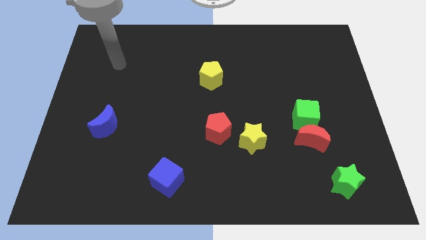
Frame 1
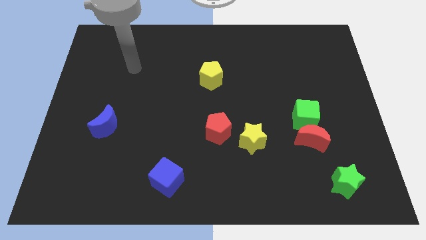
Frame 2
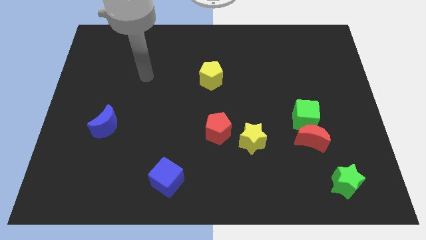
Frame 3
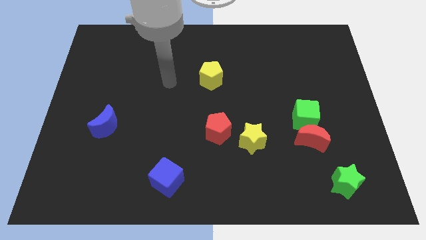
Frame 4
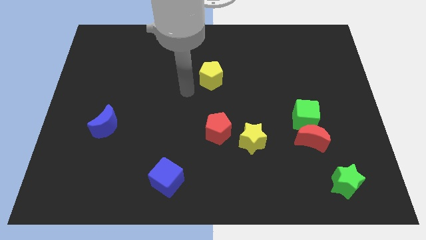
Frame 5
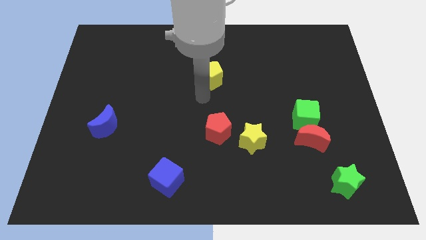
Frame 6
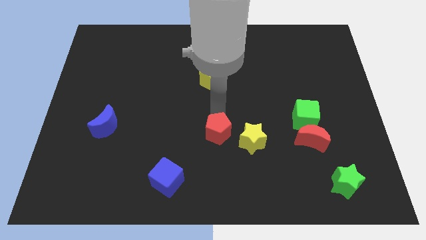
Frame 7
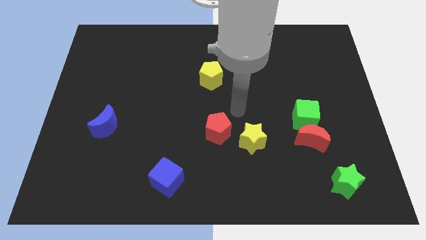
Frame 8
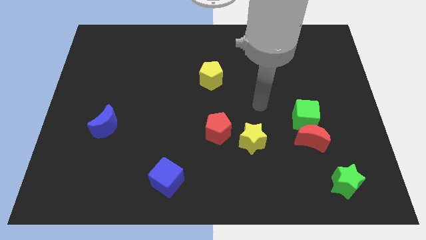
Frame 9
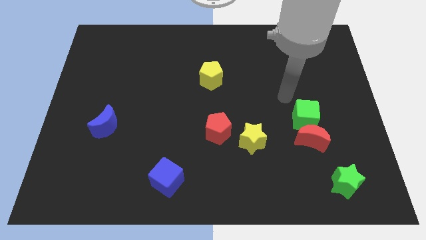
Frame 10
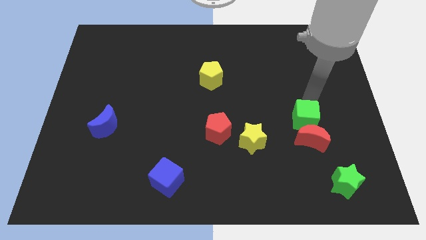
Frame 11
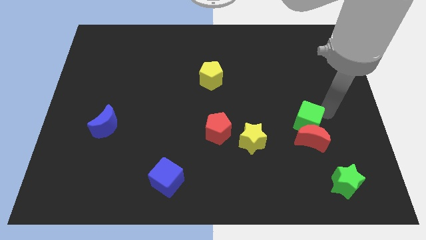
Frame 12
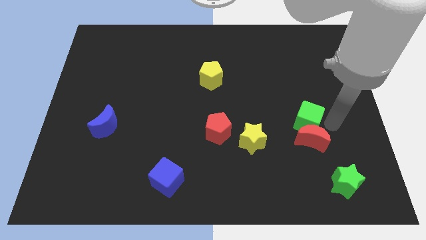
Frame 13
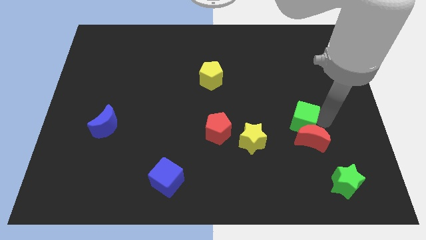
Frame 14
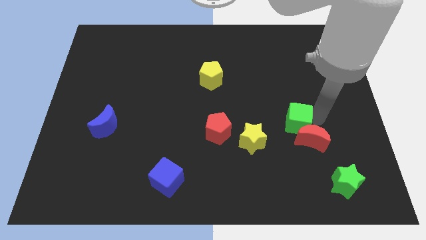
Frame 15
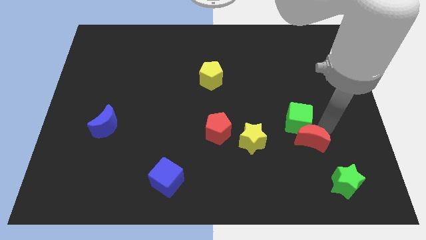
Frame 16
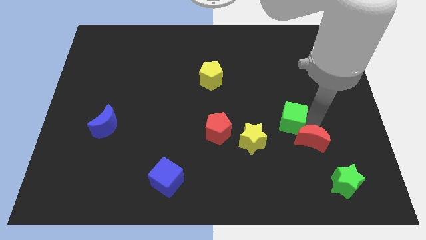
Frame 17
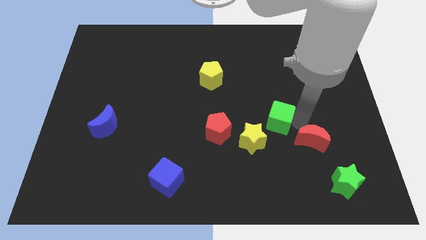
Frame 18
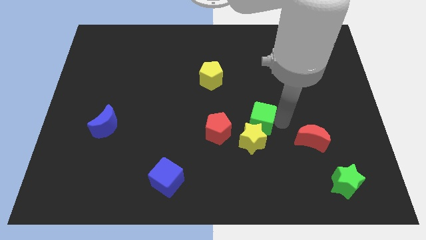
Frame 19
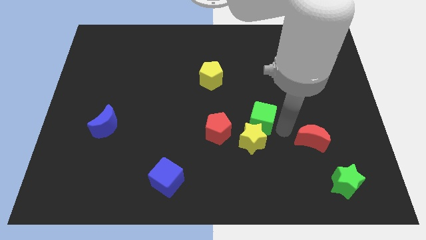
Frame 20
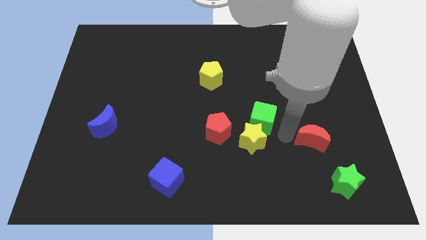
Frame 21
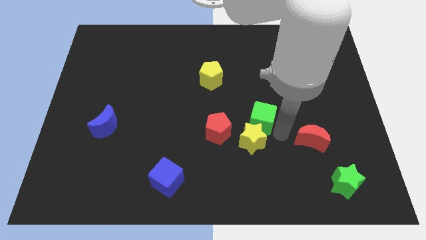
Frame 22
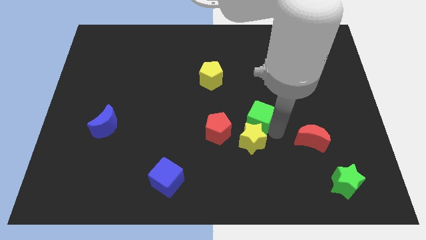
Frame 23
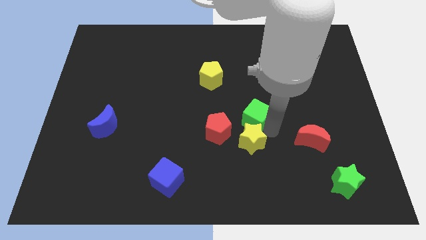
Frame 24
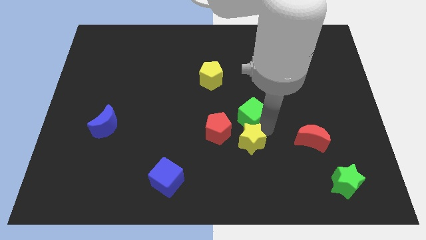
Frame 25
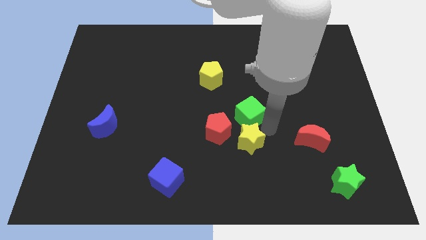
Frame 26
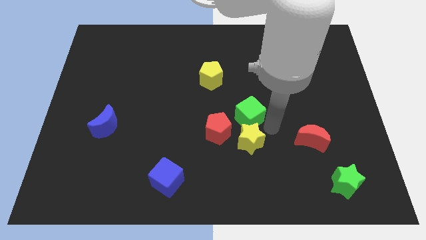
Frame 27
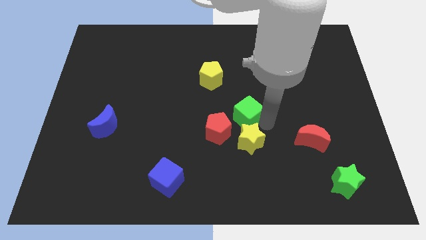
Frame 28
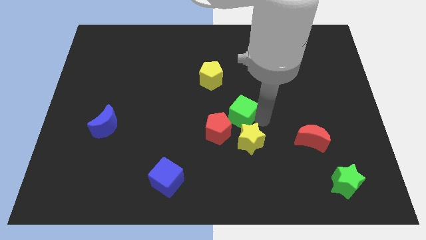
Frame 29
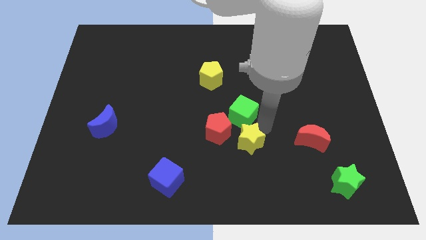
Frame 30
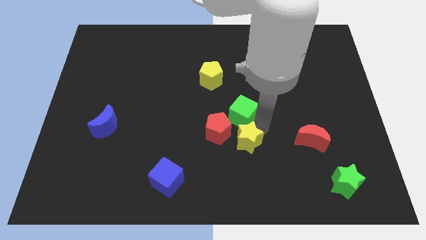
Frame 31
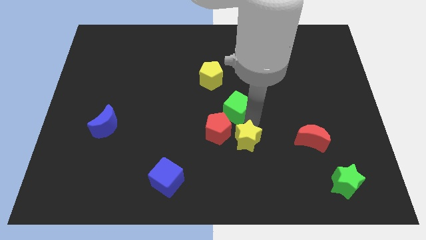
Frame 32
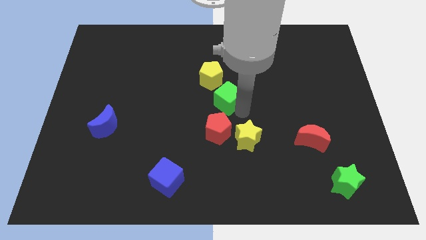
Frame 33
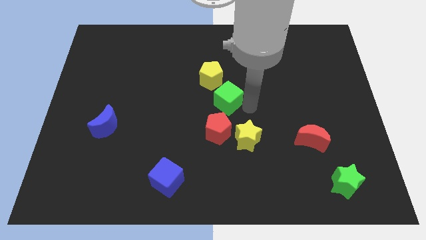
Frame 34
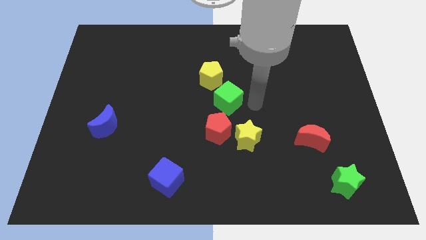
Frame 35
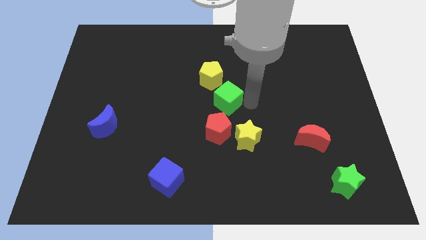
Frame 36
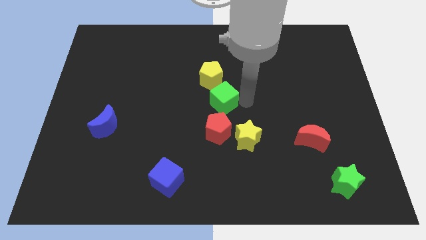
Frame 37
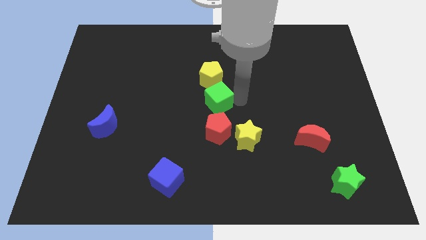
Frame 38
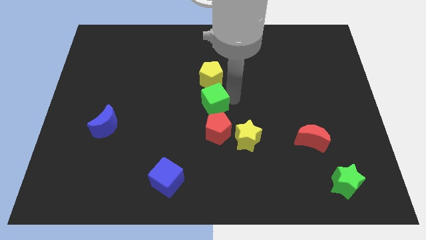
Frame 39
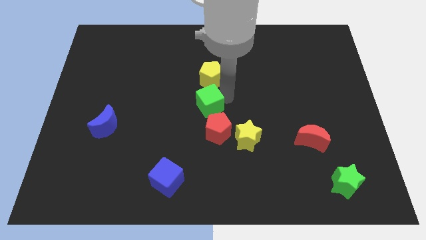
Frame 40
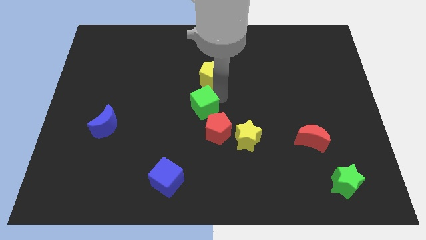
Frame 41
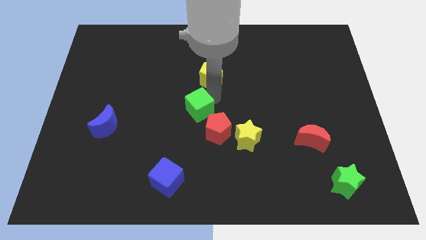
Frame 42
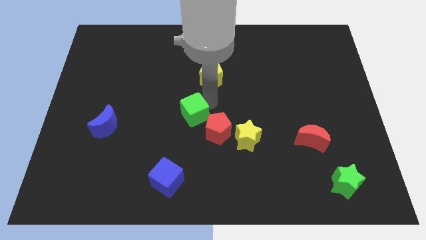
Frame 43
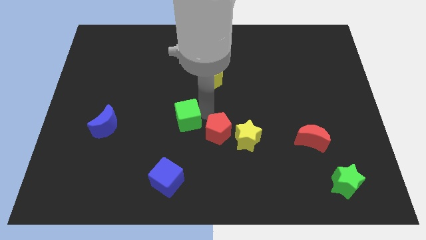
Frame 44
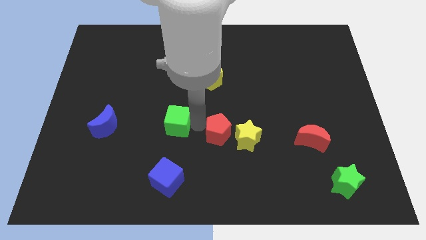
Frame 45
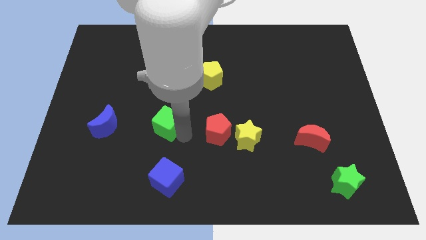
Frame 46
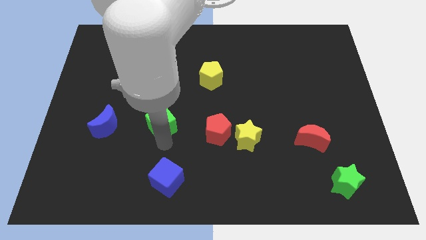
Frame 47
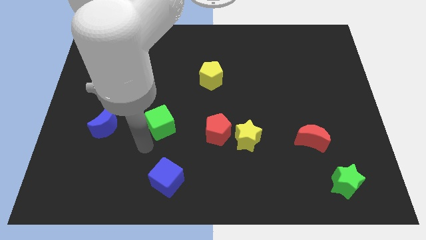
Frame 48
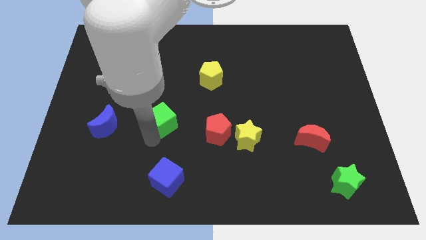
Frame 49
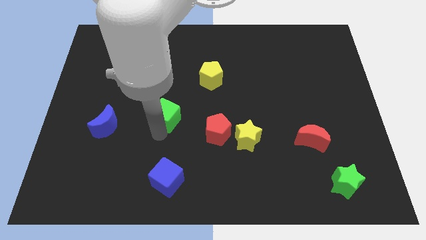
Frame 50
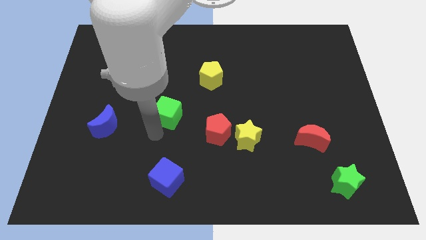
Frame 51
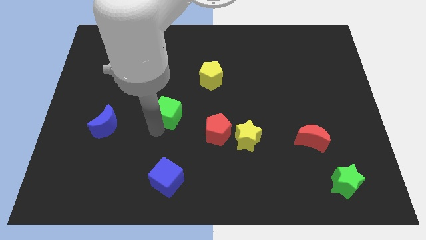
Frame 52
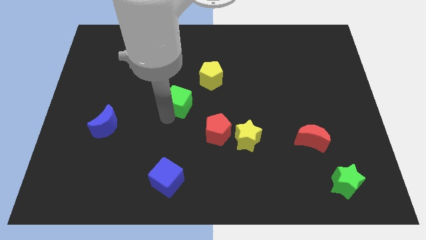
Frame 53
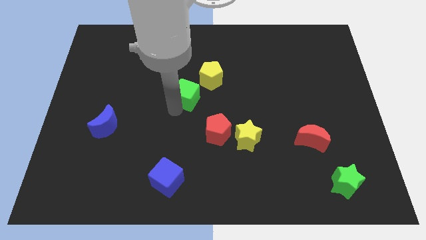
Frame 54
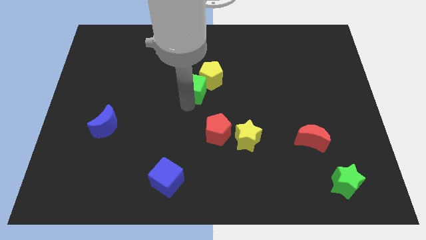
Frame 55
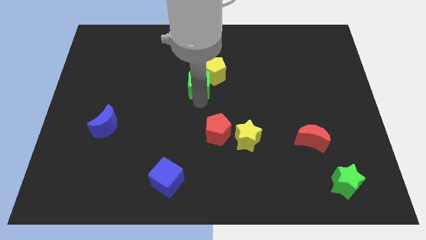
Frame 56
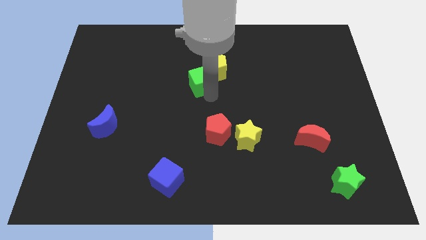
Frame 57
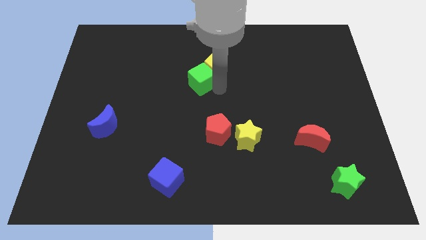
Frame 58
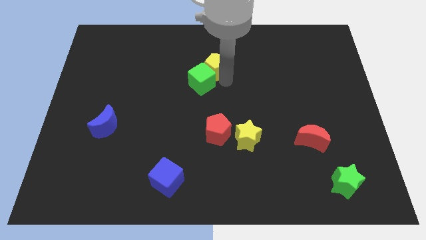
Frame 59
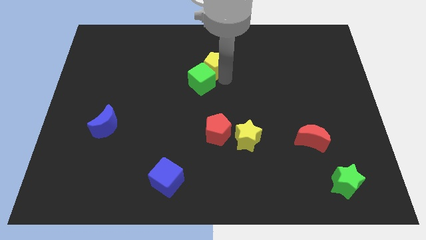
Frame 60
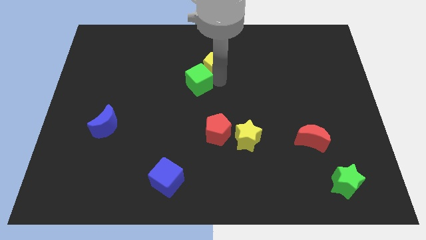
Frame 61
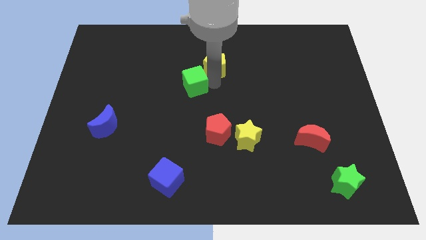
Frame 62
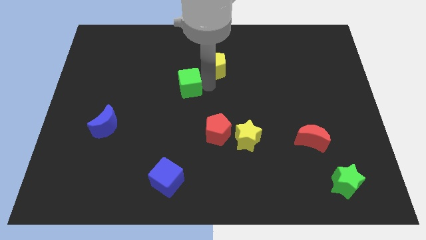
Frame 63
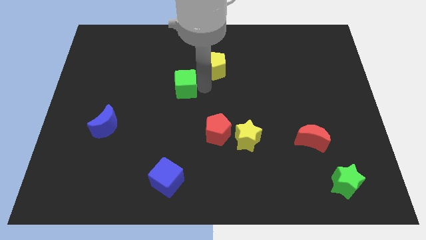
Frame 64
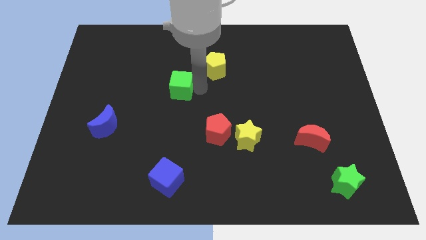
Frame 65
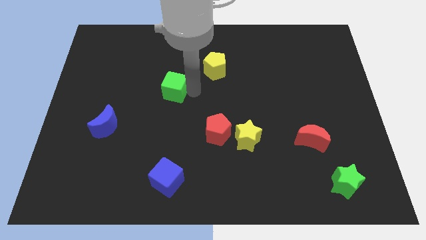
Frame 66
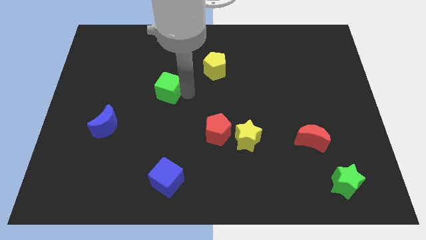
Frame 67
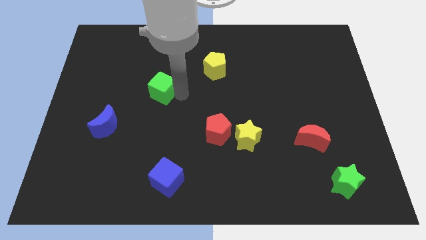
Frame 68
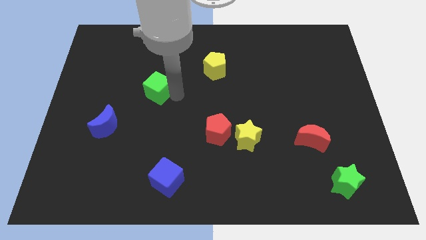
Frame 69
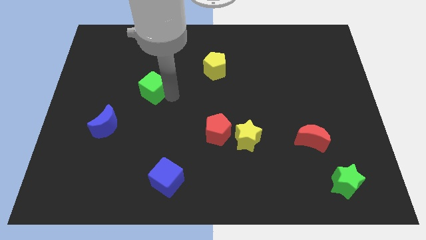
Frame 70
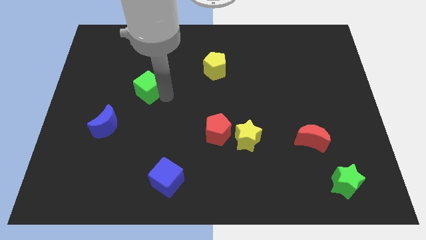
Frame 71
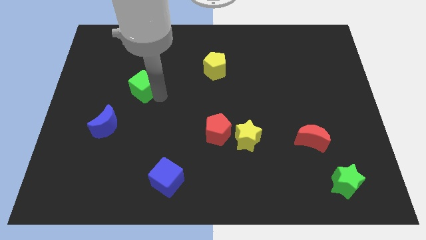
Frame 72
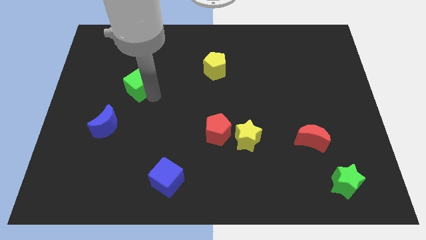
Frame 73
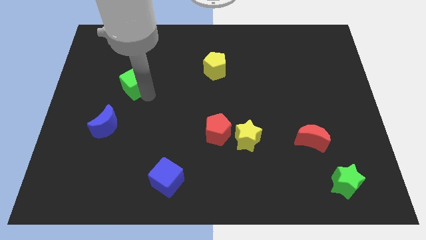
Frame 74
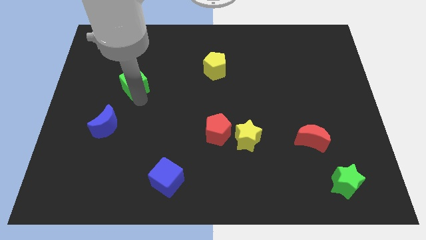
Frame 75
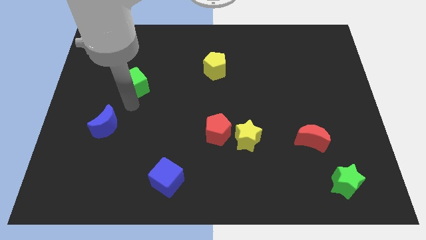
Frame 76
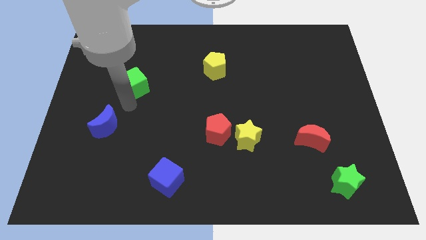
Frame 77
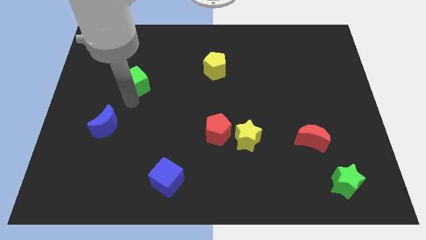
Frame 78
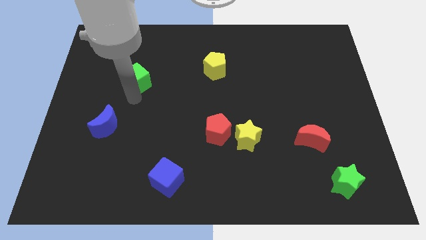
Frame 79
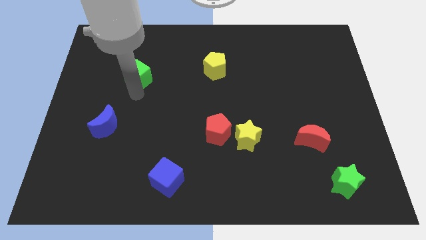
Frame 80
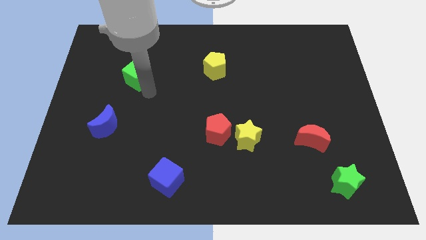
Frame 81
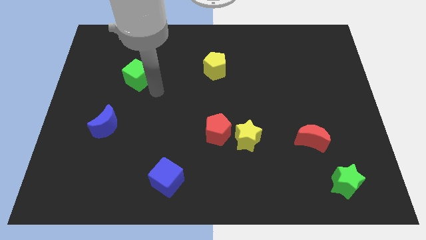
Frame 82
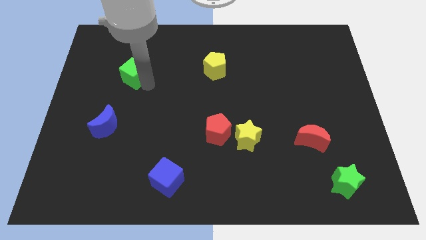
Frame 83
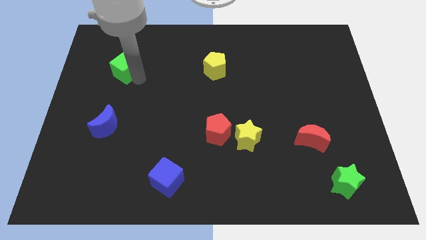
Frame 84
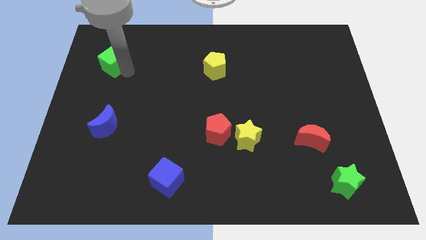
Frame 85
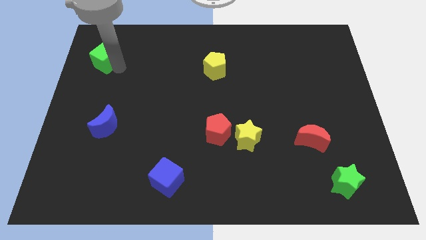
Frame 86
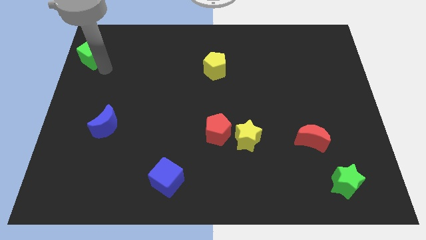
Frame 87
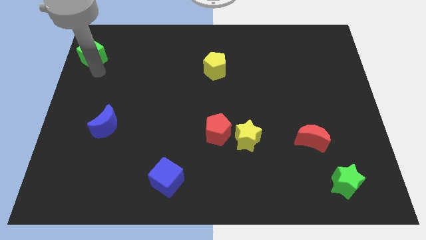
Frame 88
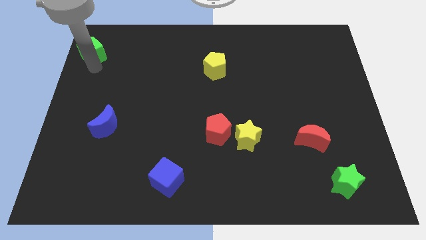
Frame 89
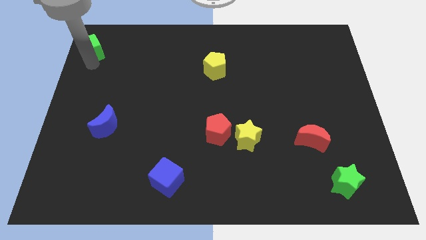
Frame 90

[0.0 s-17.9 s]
move the green cube to the top left of the board
